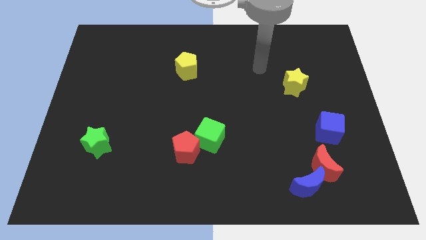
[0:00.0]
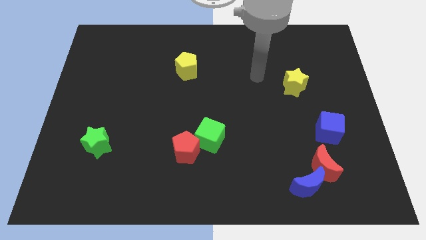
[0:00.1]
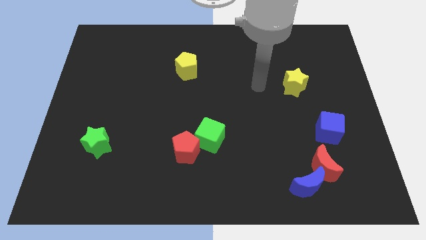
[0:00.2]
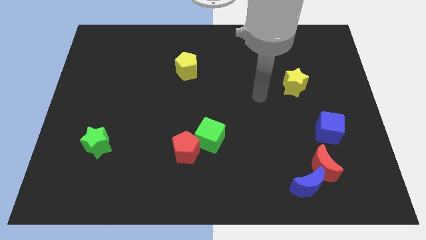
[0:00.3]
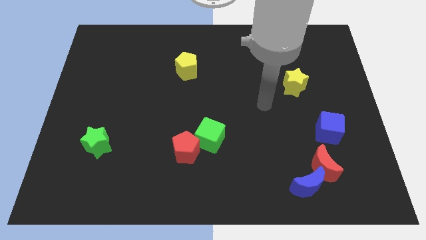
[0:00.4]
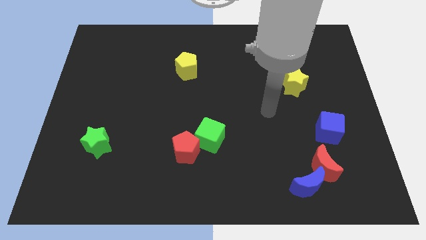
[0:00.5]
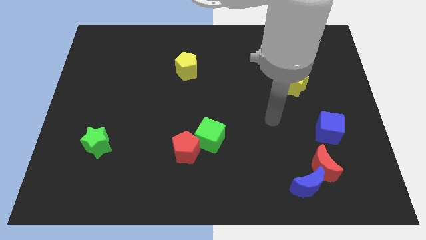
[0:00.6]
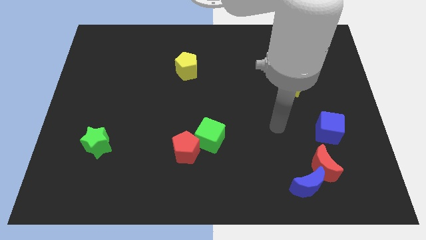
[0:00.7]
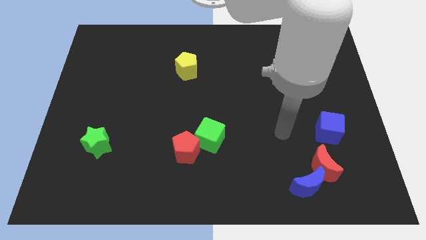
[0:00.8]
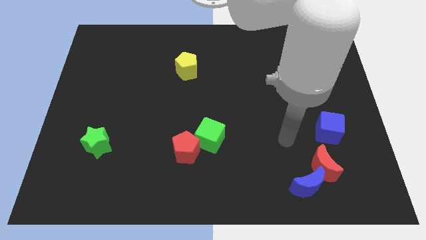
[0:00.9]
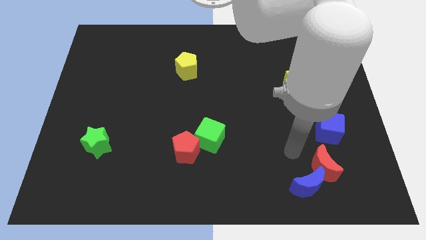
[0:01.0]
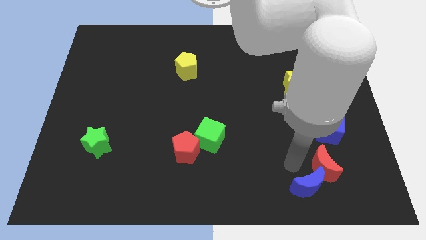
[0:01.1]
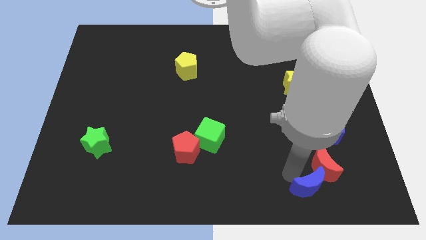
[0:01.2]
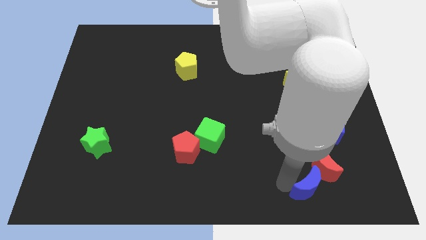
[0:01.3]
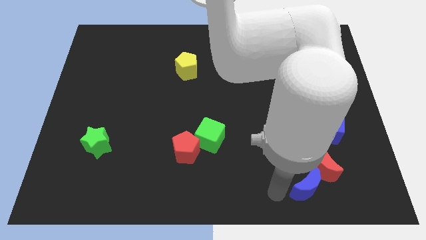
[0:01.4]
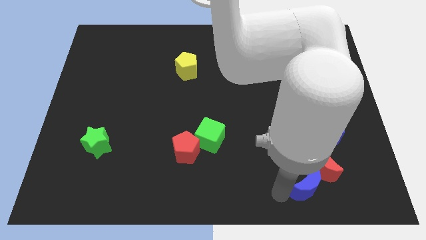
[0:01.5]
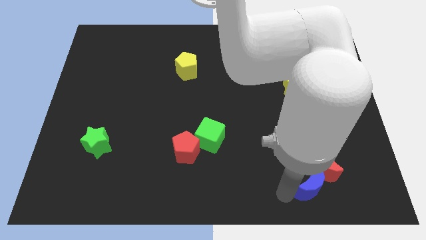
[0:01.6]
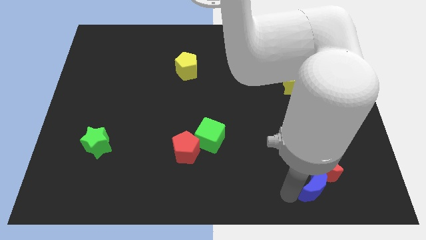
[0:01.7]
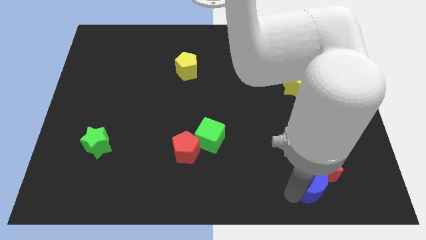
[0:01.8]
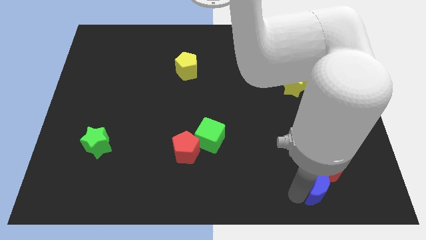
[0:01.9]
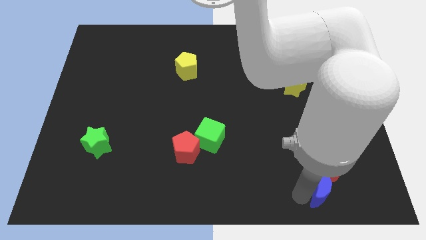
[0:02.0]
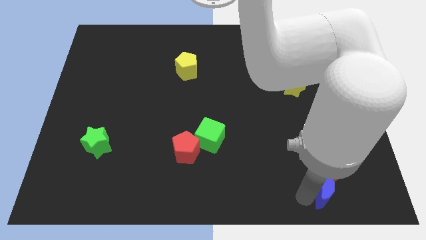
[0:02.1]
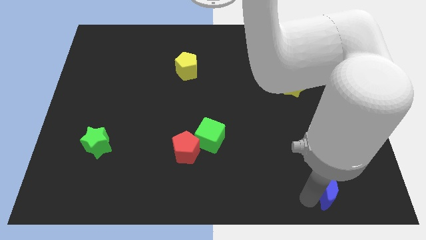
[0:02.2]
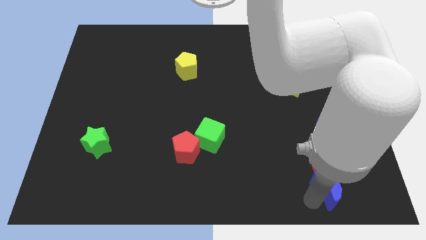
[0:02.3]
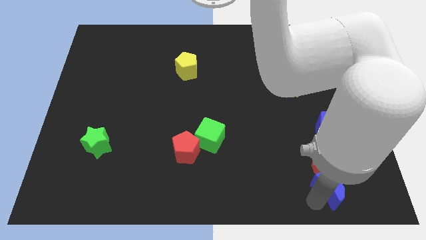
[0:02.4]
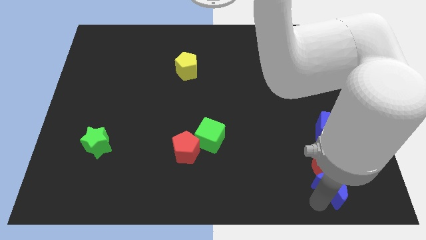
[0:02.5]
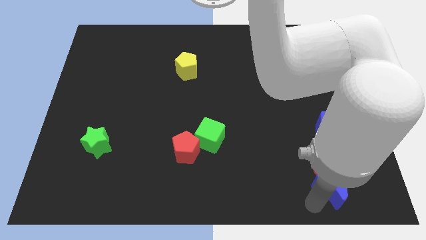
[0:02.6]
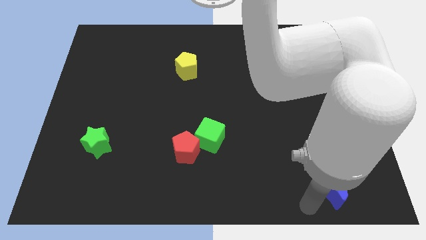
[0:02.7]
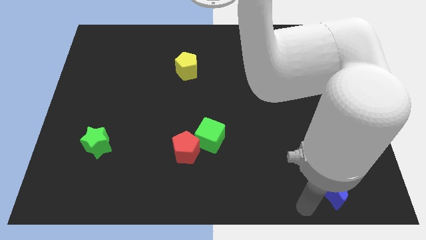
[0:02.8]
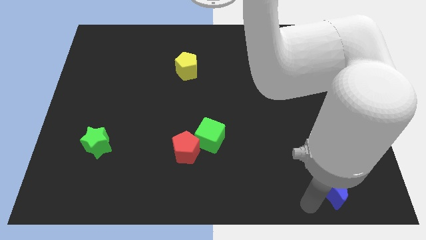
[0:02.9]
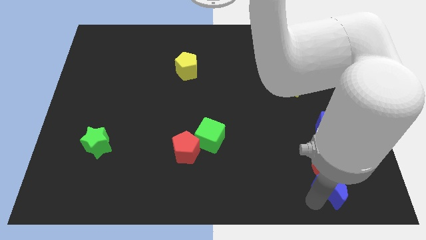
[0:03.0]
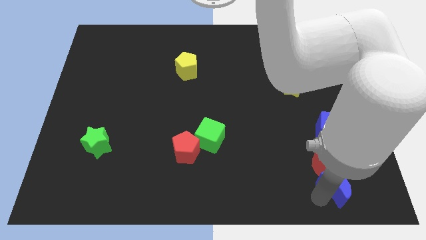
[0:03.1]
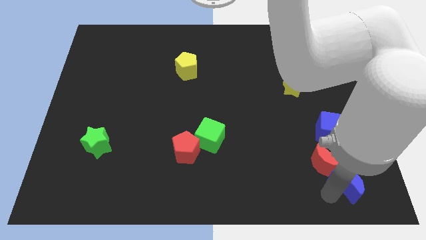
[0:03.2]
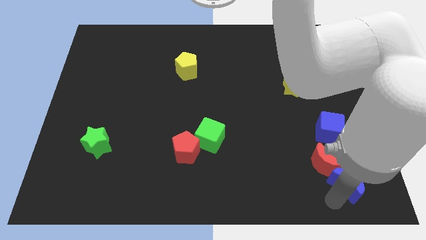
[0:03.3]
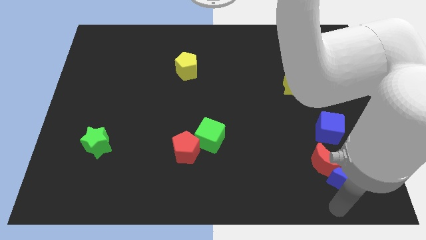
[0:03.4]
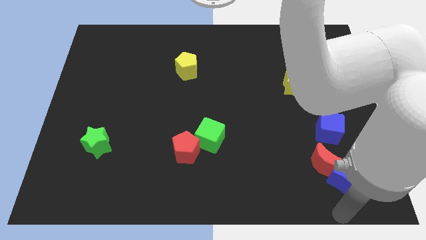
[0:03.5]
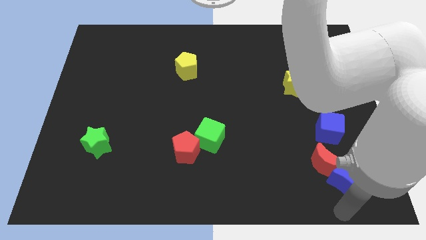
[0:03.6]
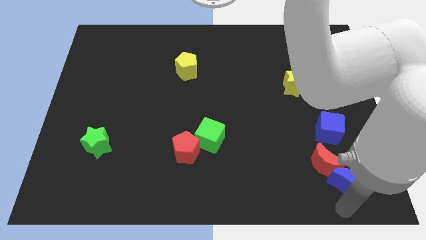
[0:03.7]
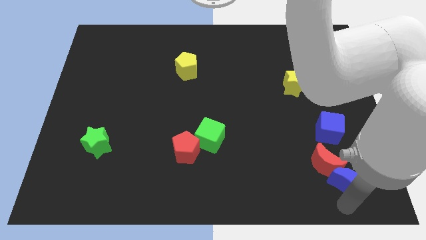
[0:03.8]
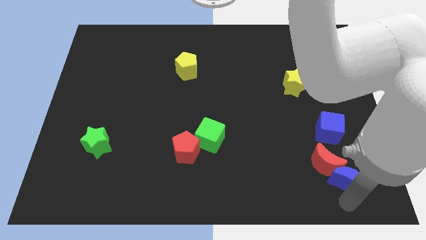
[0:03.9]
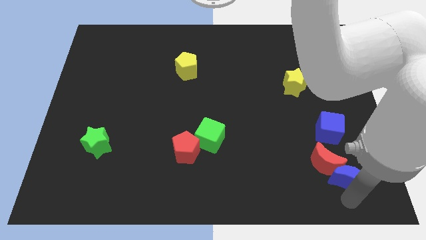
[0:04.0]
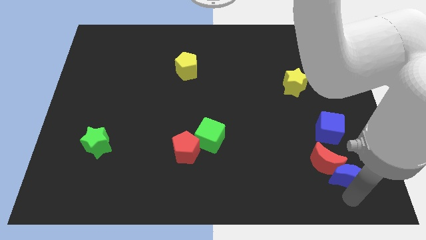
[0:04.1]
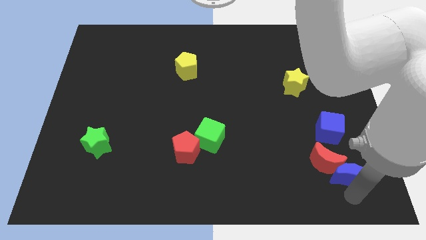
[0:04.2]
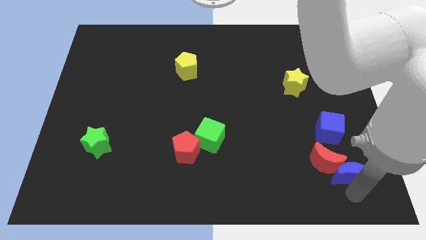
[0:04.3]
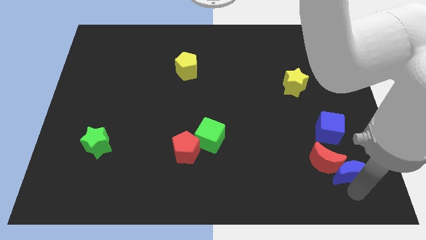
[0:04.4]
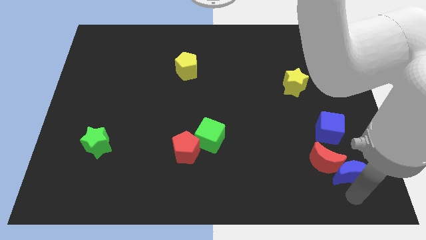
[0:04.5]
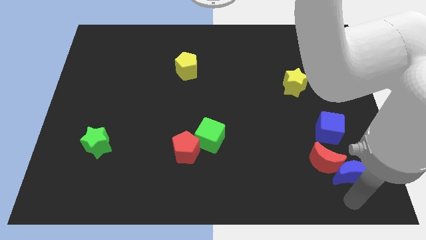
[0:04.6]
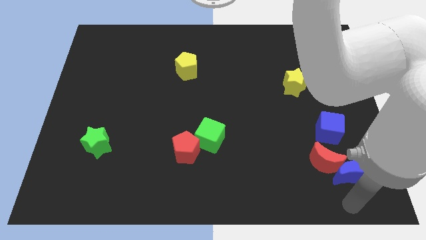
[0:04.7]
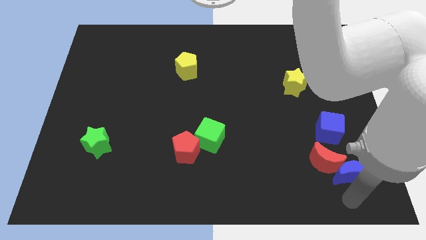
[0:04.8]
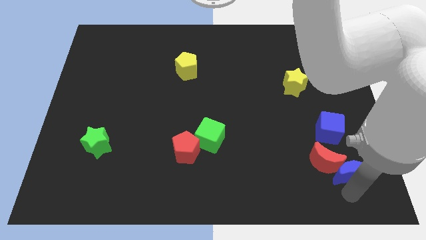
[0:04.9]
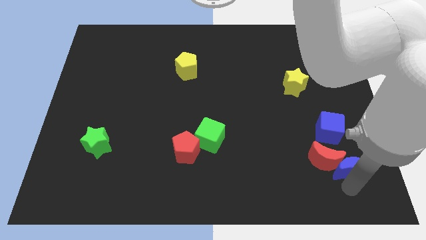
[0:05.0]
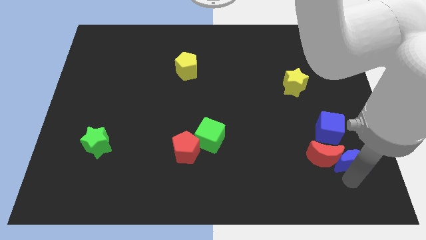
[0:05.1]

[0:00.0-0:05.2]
move the blue moon to the top right of the red moon

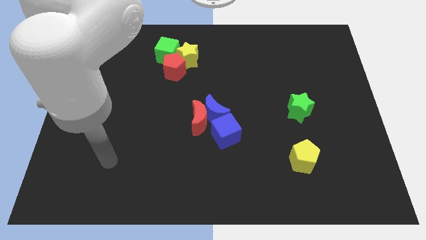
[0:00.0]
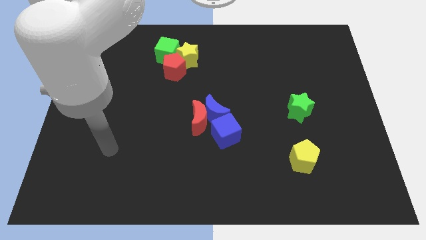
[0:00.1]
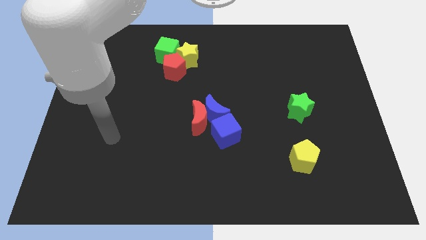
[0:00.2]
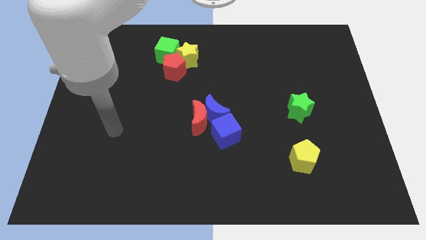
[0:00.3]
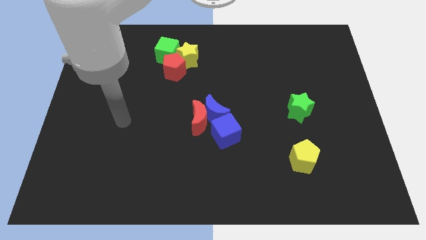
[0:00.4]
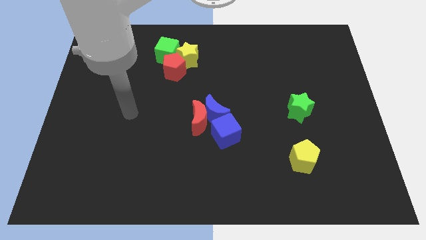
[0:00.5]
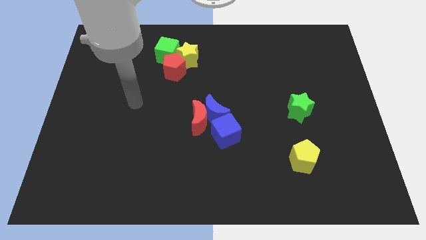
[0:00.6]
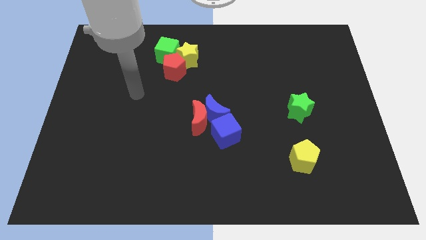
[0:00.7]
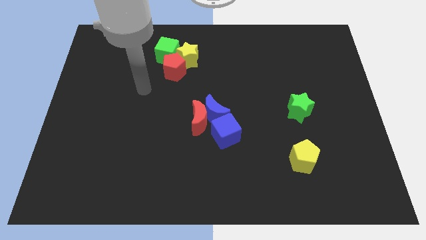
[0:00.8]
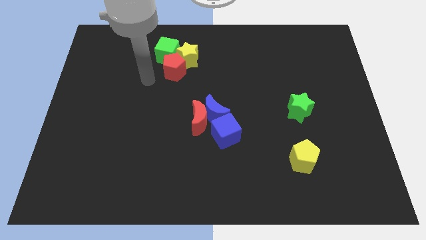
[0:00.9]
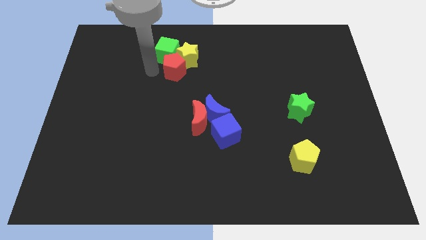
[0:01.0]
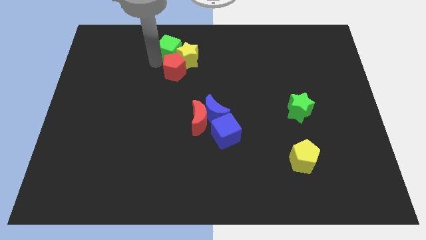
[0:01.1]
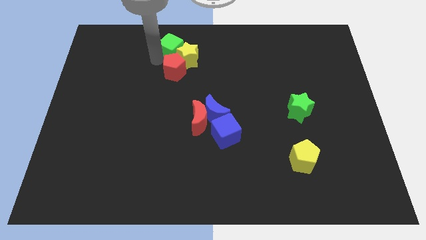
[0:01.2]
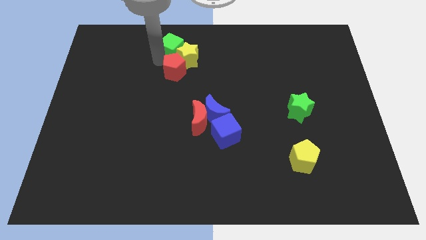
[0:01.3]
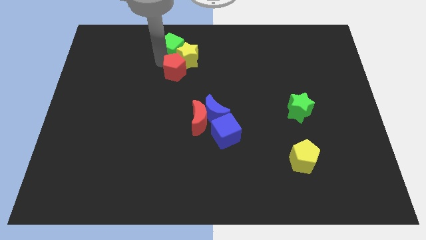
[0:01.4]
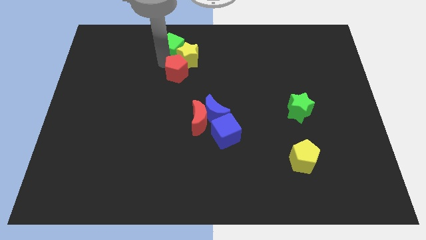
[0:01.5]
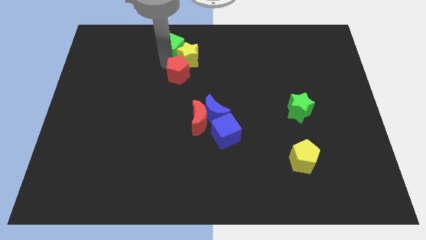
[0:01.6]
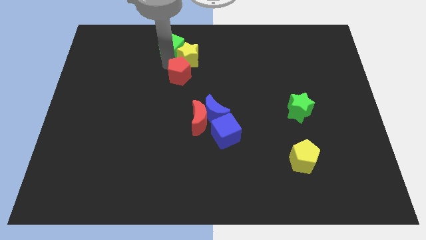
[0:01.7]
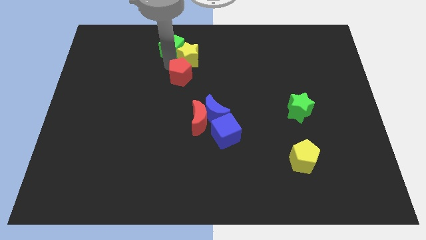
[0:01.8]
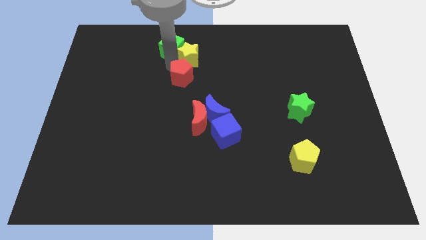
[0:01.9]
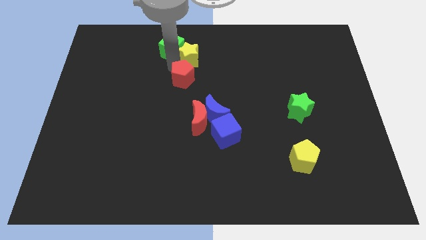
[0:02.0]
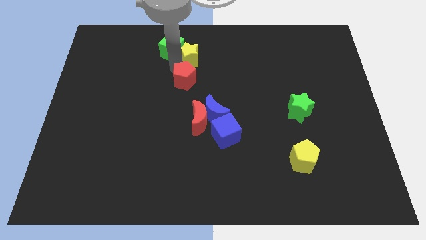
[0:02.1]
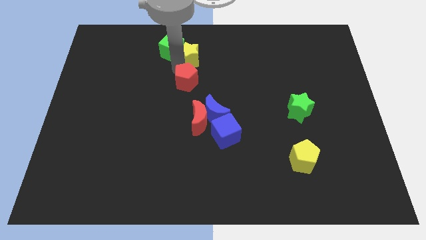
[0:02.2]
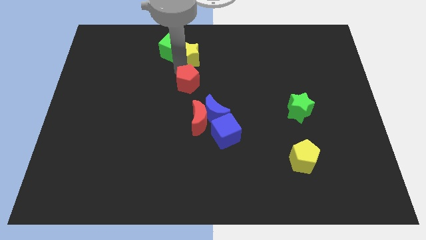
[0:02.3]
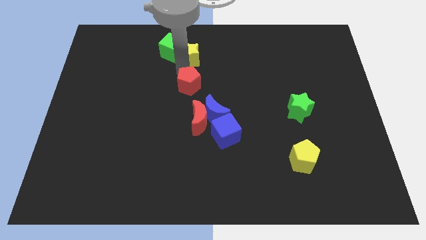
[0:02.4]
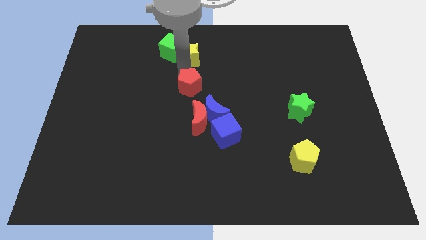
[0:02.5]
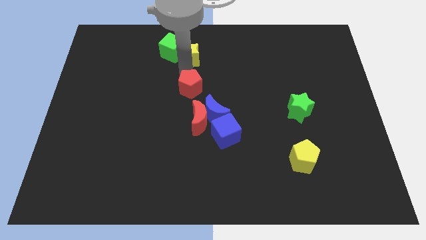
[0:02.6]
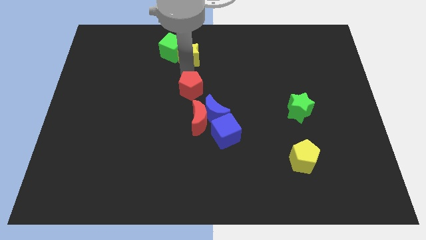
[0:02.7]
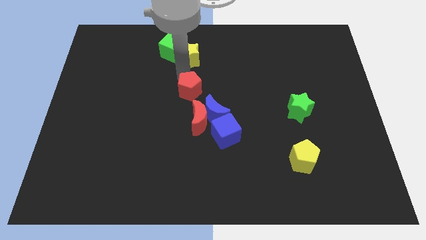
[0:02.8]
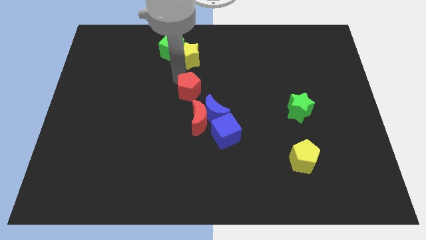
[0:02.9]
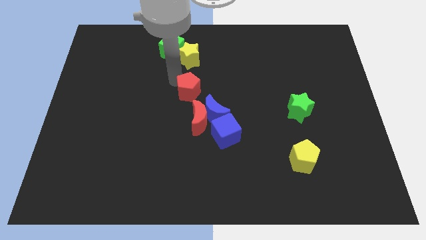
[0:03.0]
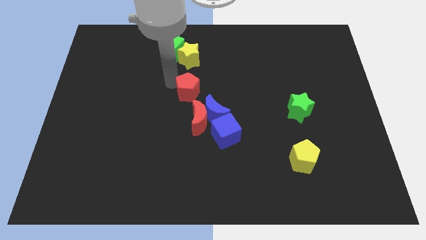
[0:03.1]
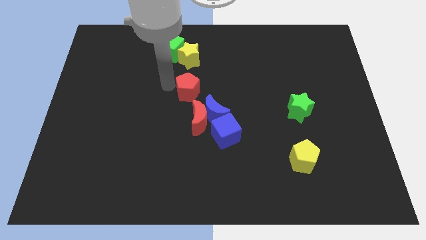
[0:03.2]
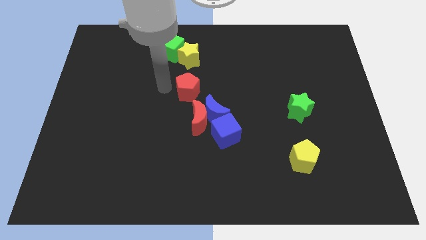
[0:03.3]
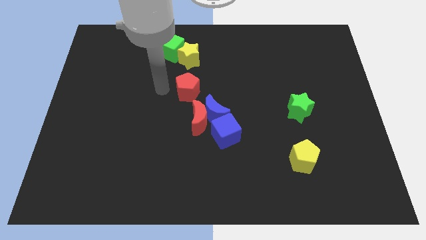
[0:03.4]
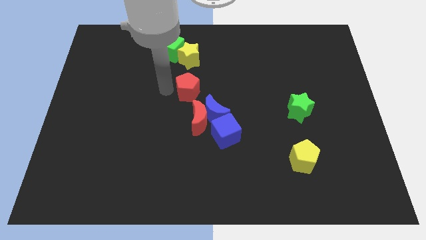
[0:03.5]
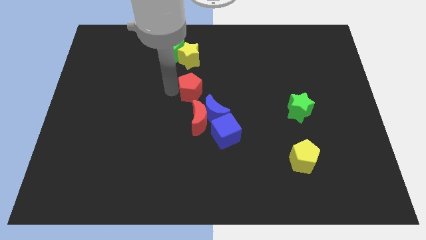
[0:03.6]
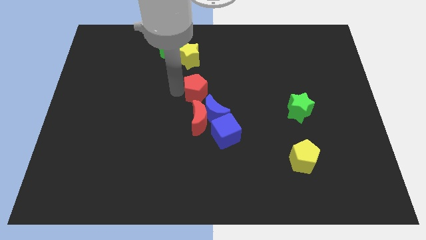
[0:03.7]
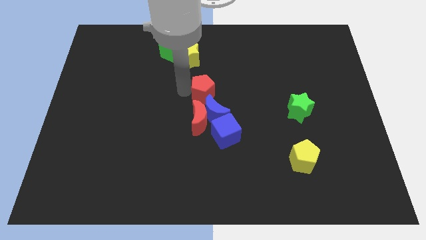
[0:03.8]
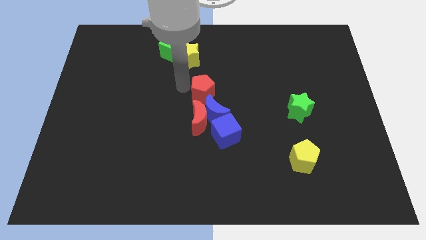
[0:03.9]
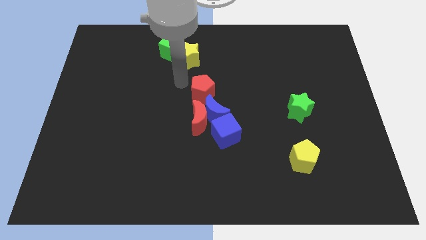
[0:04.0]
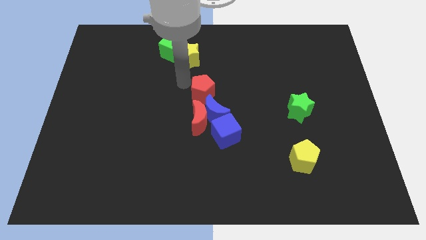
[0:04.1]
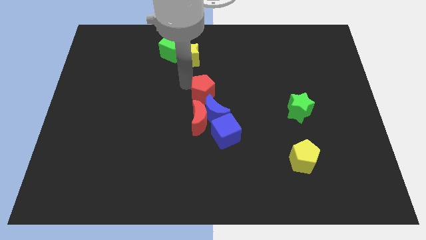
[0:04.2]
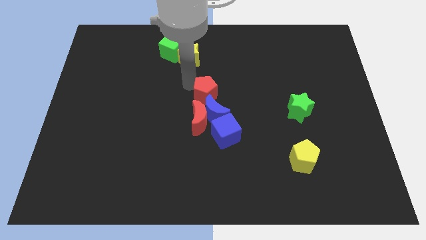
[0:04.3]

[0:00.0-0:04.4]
move the red pentagon to the top right of the red moon
